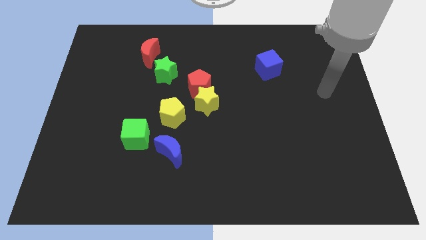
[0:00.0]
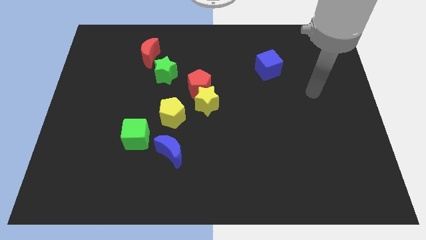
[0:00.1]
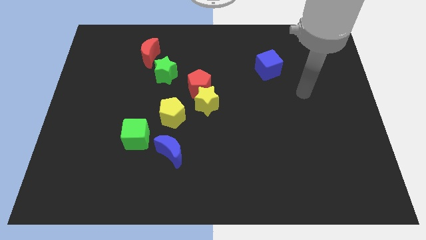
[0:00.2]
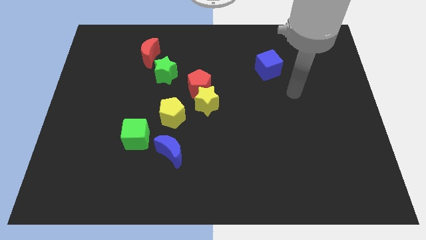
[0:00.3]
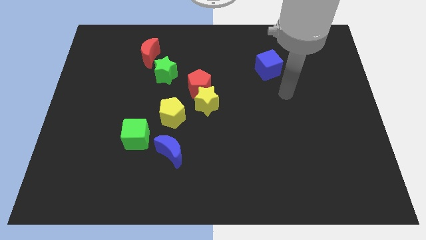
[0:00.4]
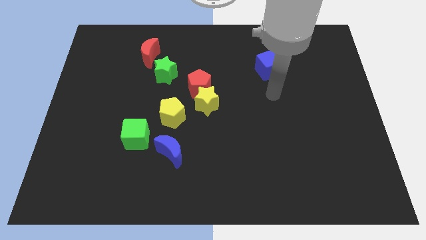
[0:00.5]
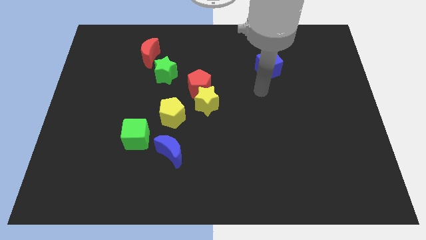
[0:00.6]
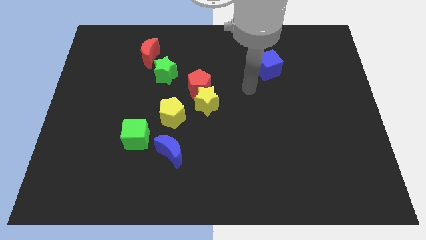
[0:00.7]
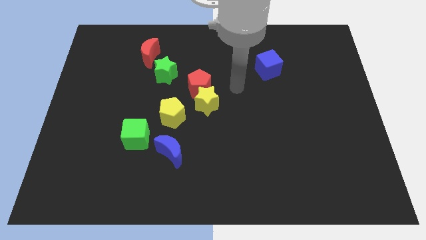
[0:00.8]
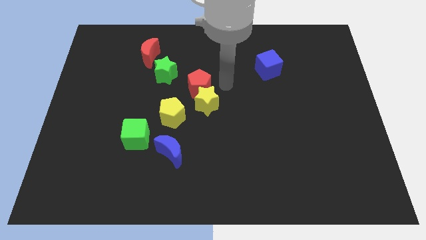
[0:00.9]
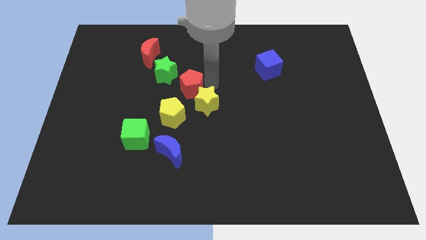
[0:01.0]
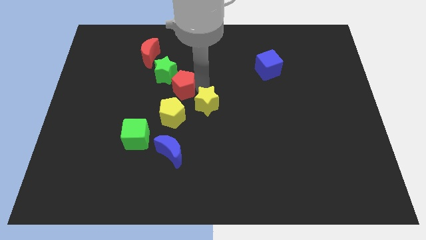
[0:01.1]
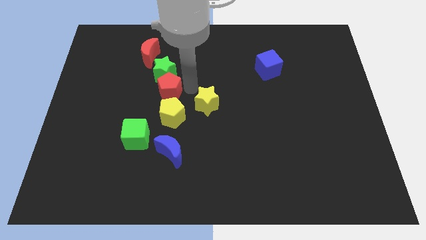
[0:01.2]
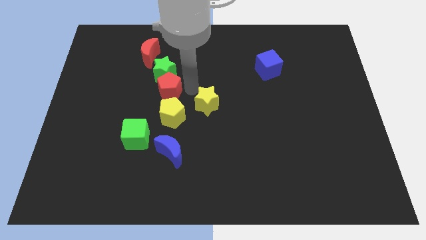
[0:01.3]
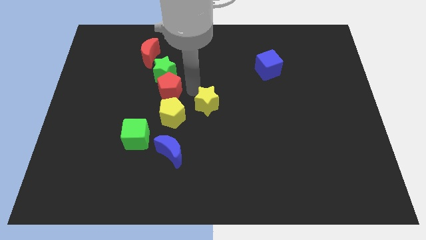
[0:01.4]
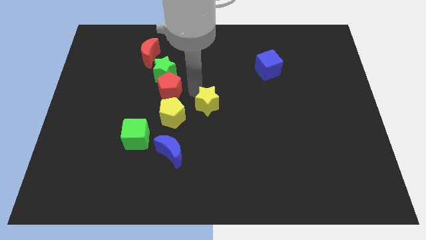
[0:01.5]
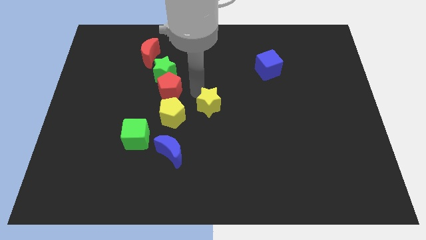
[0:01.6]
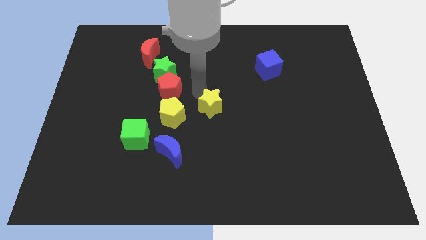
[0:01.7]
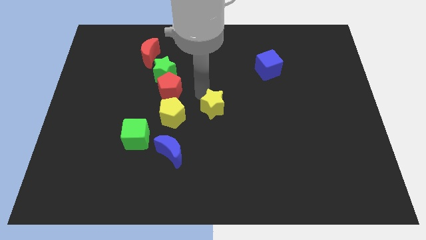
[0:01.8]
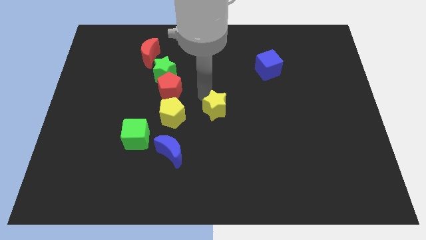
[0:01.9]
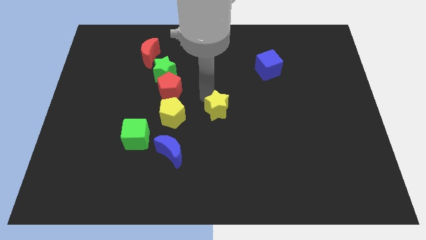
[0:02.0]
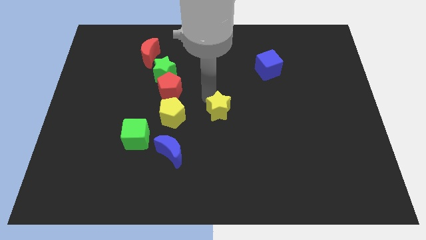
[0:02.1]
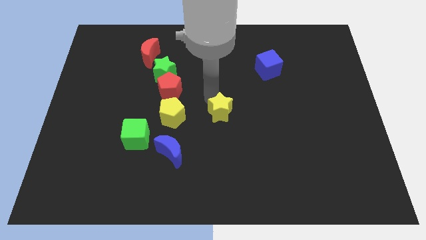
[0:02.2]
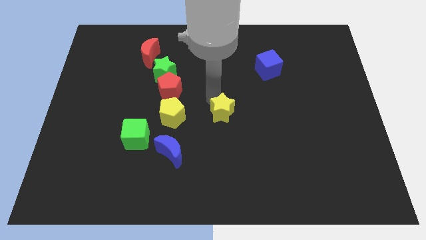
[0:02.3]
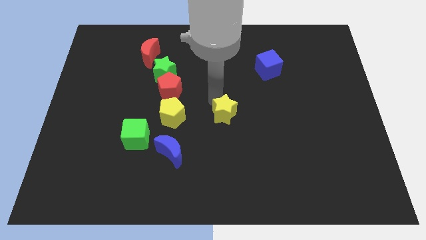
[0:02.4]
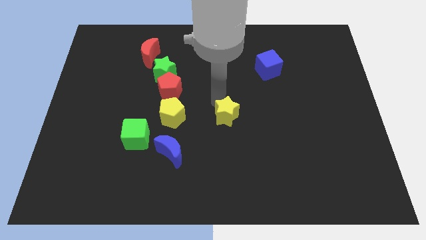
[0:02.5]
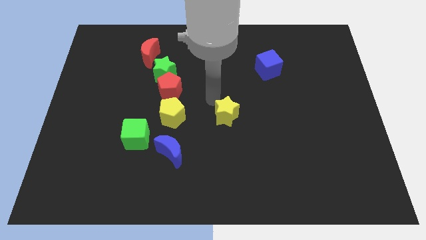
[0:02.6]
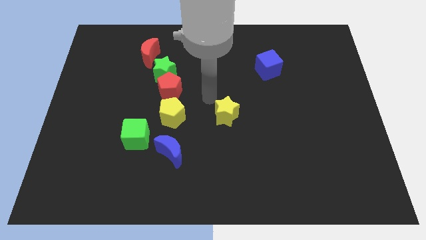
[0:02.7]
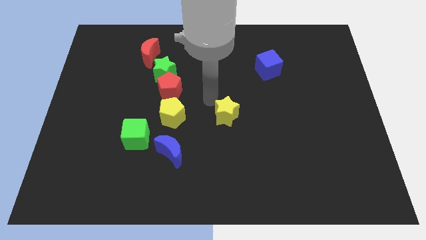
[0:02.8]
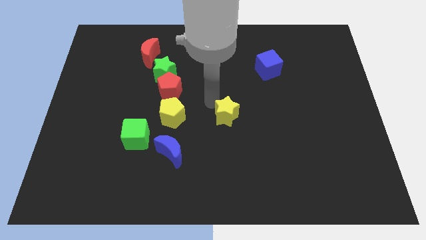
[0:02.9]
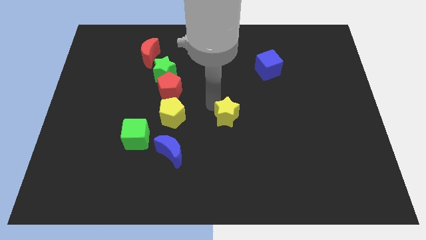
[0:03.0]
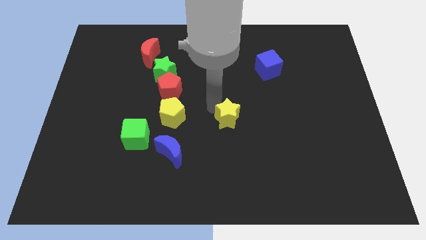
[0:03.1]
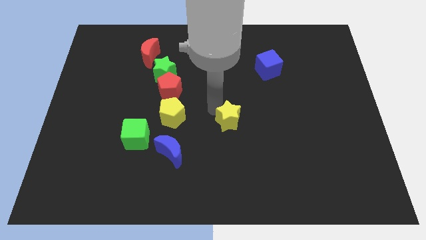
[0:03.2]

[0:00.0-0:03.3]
slightly slide the yellow star down and to the right diagonally

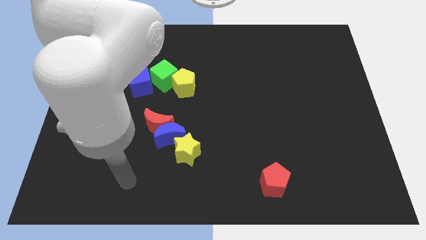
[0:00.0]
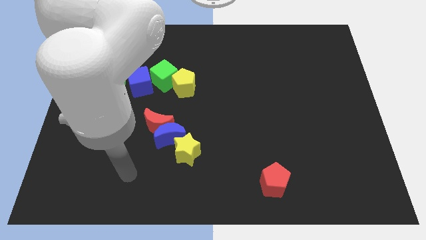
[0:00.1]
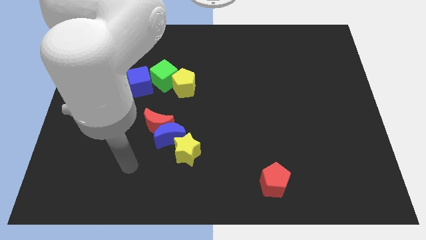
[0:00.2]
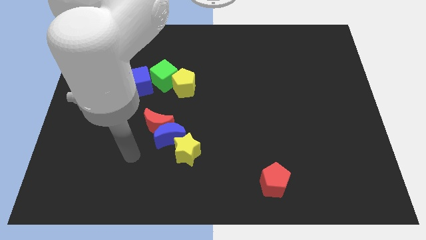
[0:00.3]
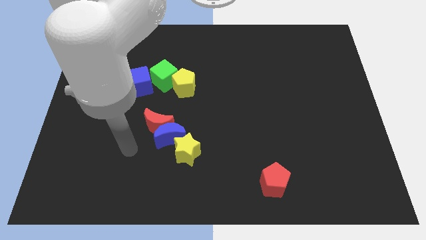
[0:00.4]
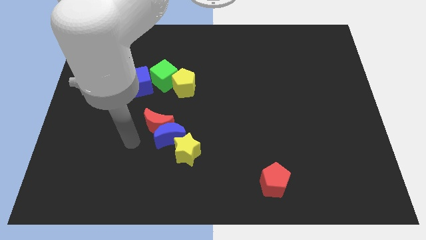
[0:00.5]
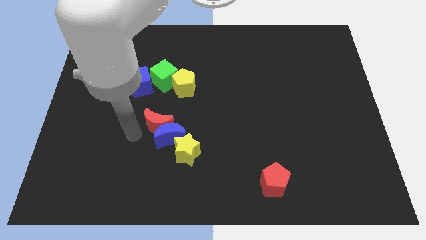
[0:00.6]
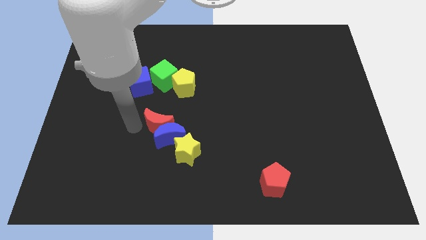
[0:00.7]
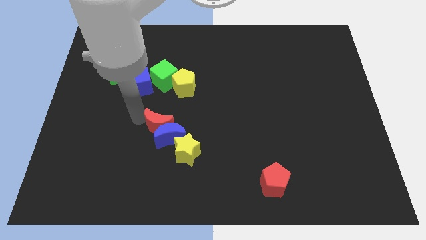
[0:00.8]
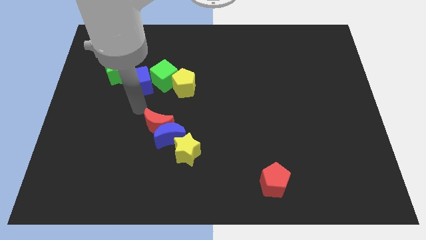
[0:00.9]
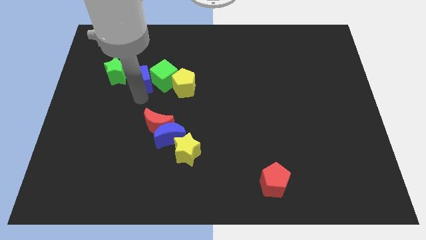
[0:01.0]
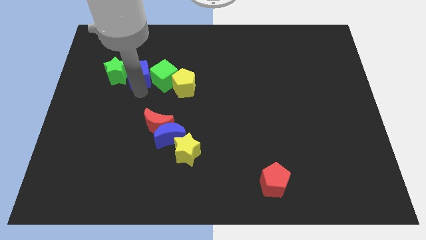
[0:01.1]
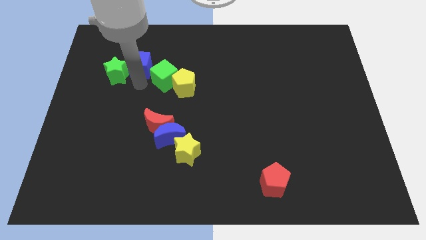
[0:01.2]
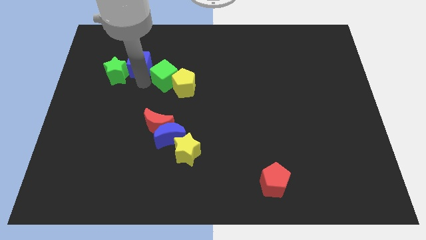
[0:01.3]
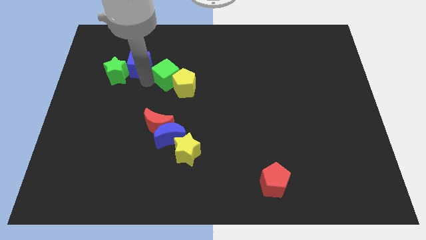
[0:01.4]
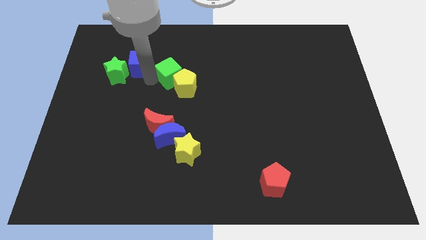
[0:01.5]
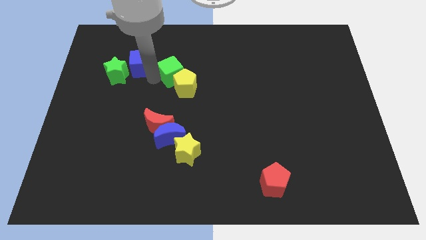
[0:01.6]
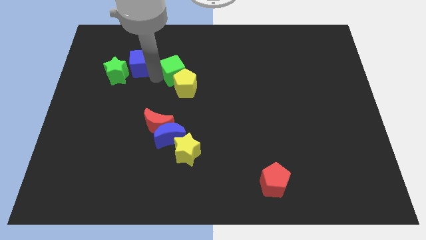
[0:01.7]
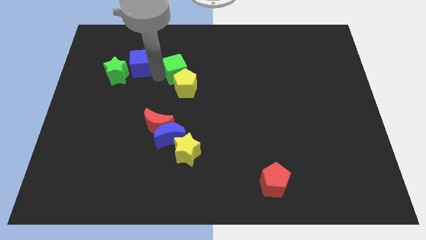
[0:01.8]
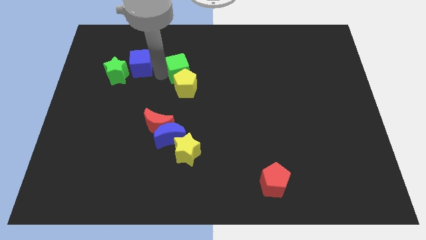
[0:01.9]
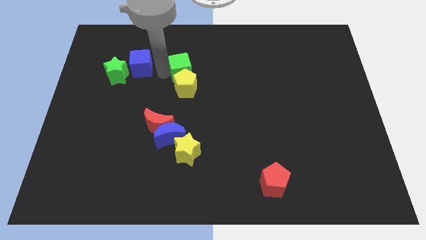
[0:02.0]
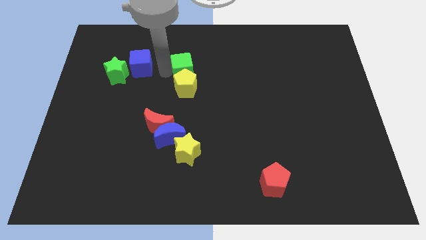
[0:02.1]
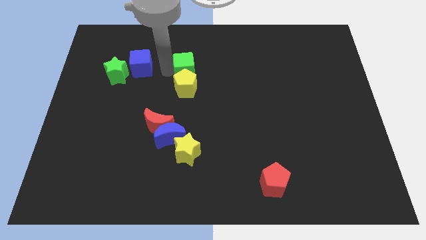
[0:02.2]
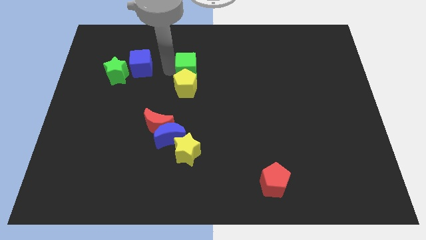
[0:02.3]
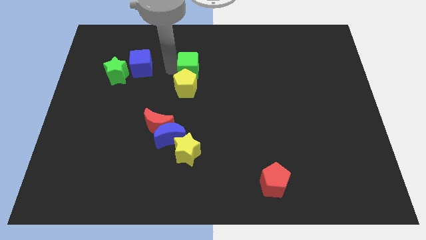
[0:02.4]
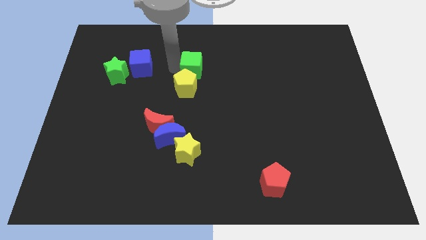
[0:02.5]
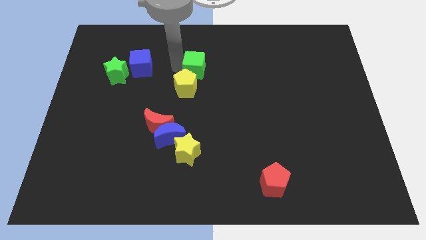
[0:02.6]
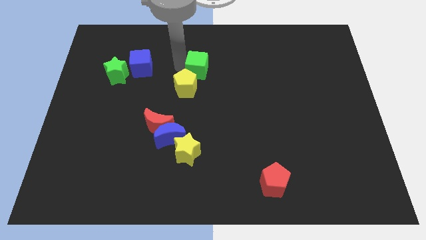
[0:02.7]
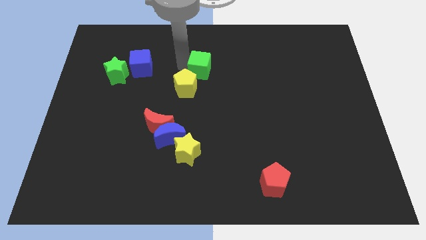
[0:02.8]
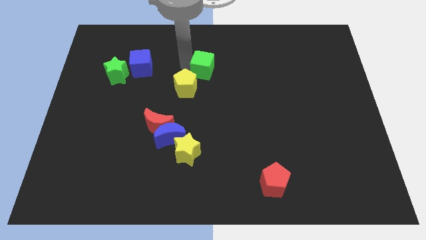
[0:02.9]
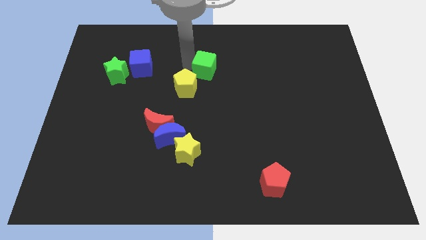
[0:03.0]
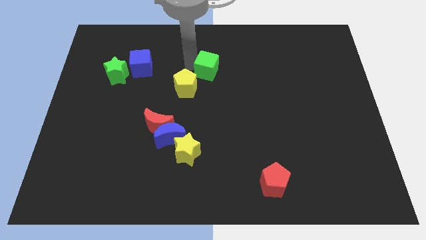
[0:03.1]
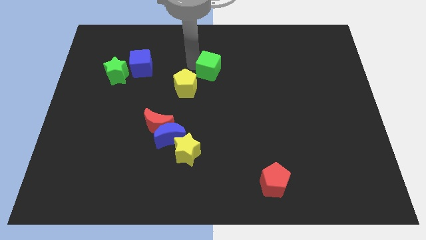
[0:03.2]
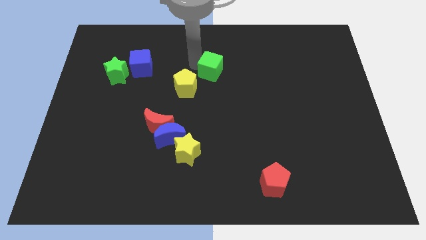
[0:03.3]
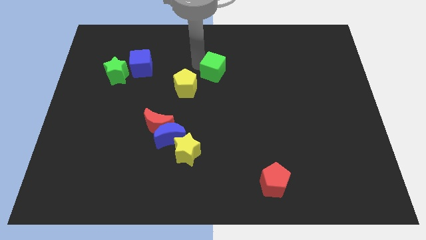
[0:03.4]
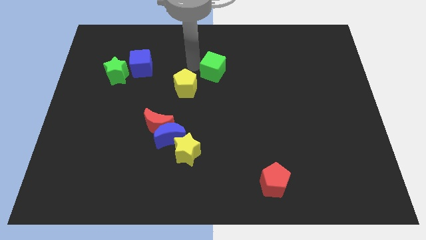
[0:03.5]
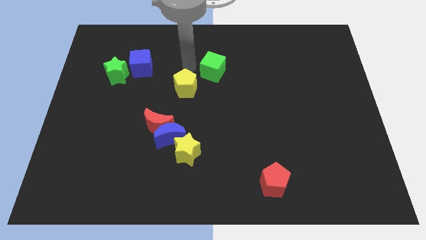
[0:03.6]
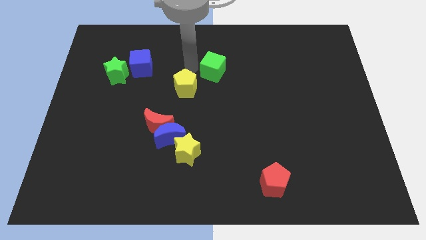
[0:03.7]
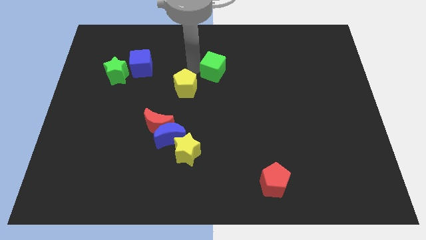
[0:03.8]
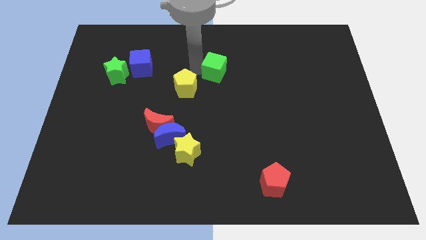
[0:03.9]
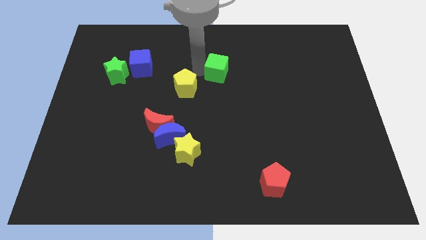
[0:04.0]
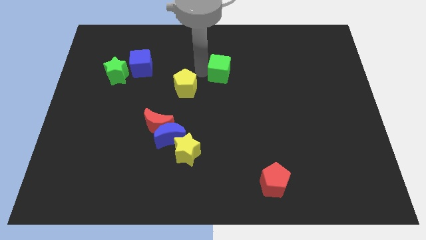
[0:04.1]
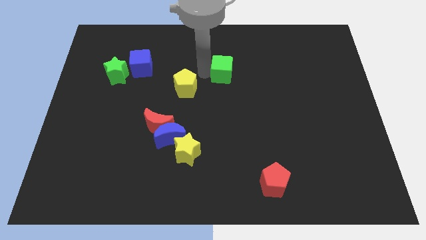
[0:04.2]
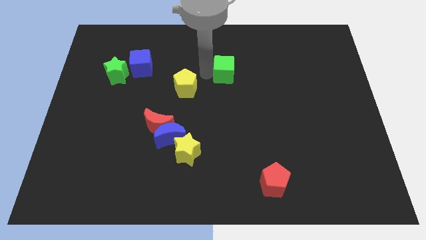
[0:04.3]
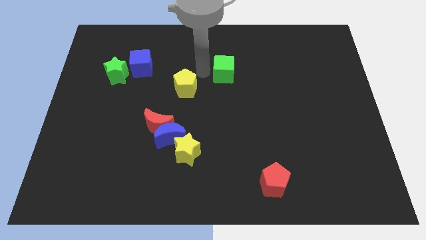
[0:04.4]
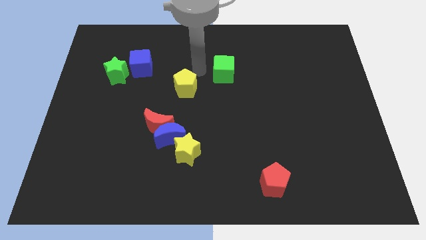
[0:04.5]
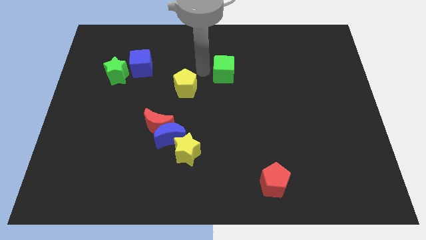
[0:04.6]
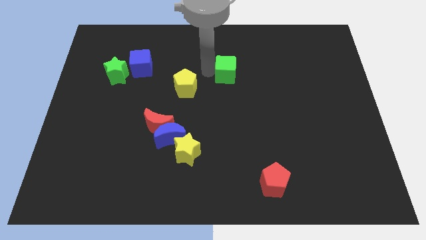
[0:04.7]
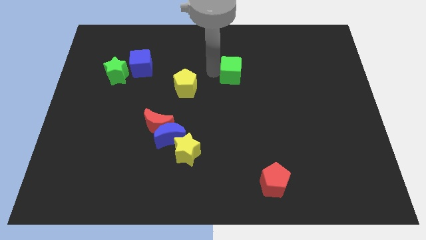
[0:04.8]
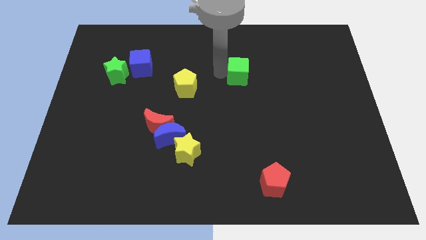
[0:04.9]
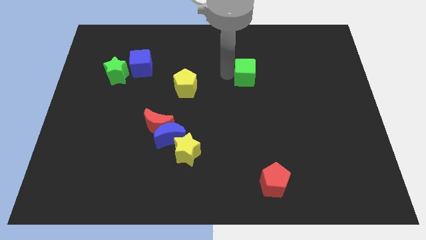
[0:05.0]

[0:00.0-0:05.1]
push the green cube right
